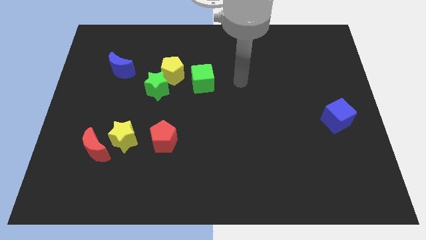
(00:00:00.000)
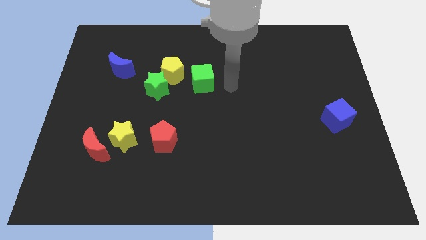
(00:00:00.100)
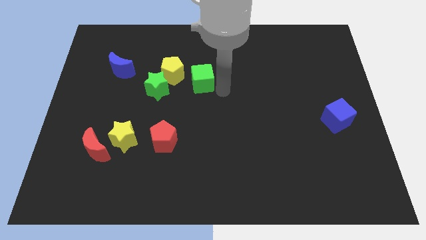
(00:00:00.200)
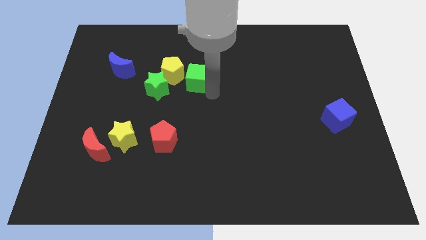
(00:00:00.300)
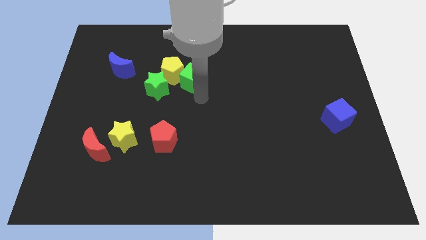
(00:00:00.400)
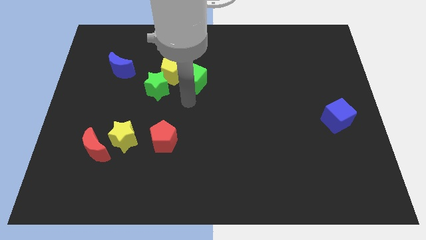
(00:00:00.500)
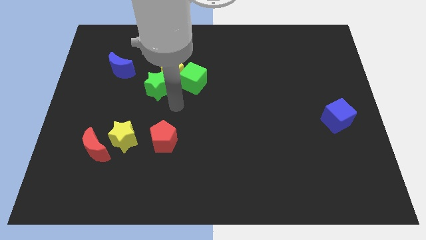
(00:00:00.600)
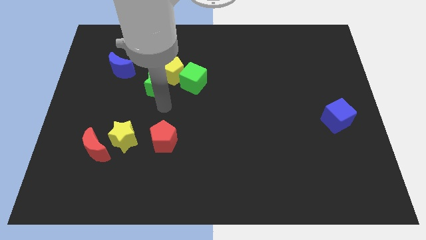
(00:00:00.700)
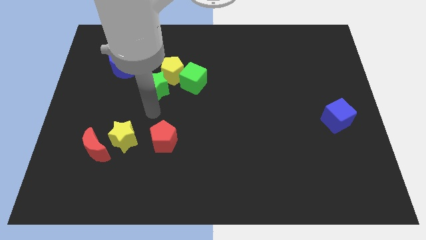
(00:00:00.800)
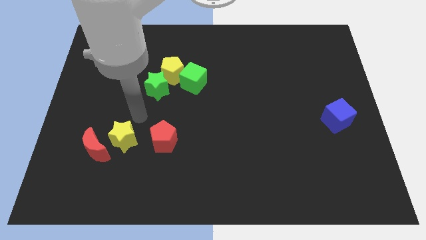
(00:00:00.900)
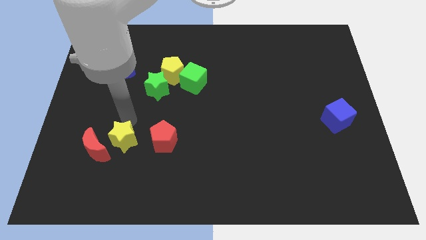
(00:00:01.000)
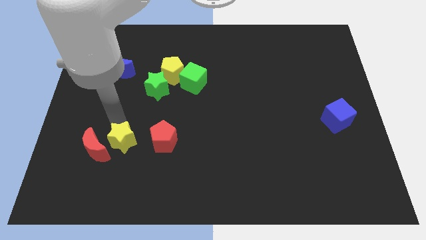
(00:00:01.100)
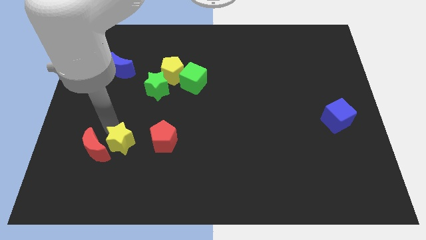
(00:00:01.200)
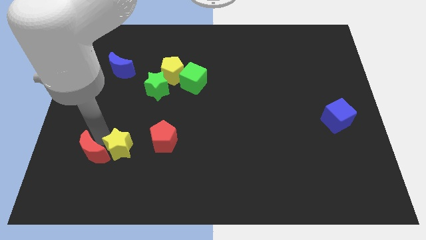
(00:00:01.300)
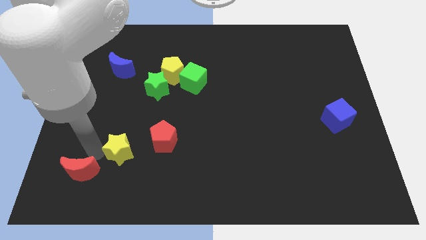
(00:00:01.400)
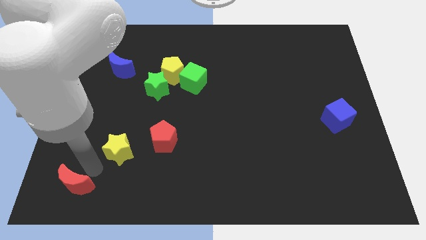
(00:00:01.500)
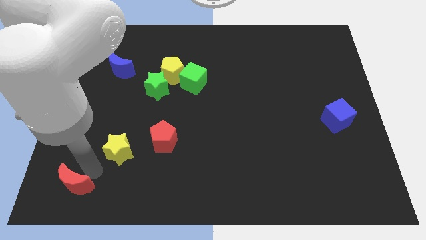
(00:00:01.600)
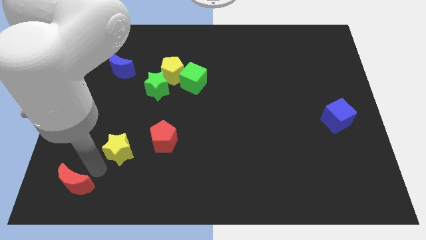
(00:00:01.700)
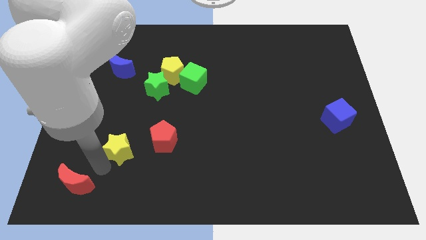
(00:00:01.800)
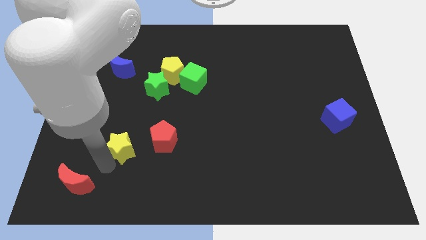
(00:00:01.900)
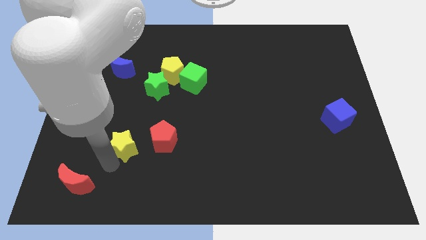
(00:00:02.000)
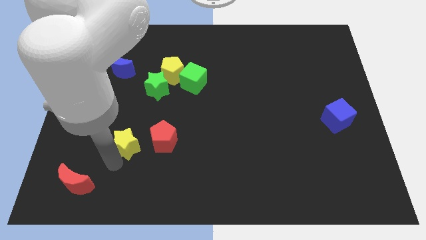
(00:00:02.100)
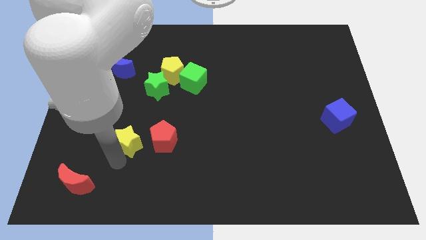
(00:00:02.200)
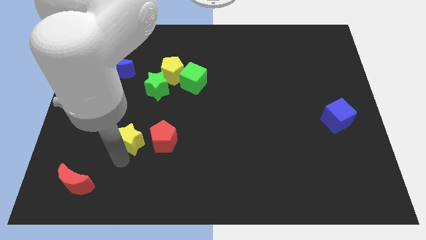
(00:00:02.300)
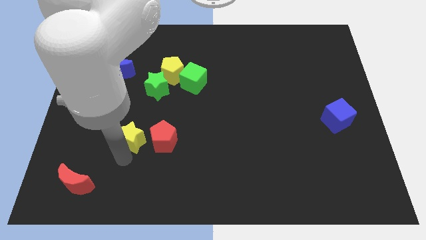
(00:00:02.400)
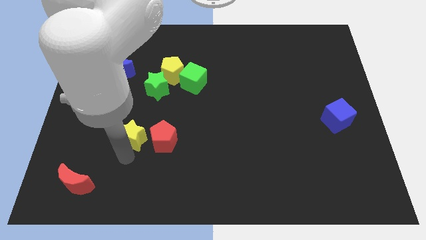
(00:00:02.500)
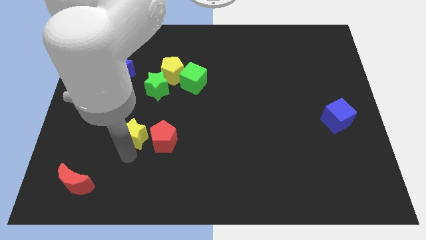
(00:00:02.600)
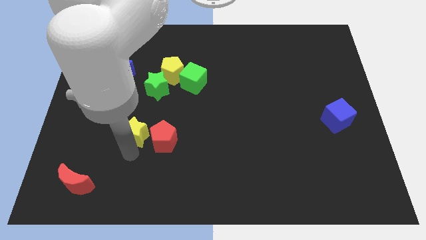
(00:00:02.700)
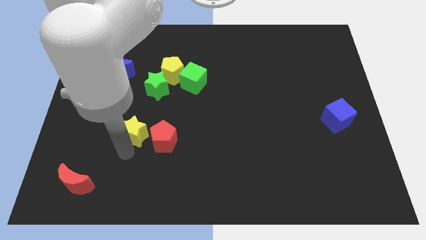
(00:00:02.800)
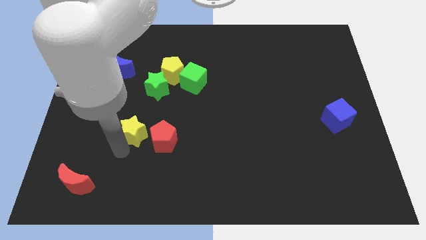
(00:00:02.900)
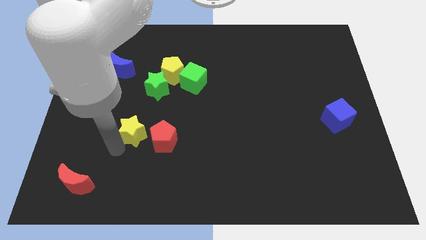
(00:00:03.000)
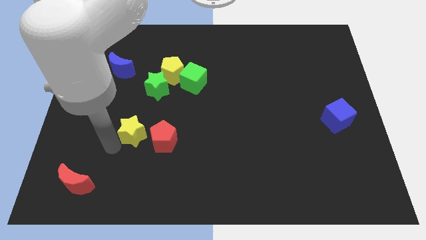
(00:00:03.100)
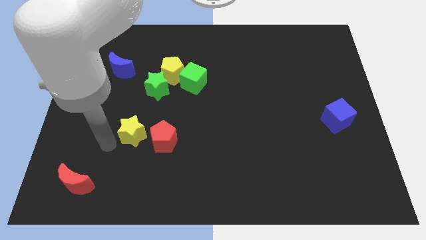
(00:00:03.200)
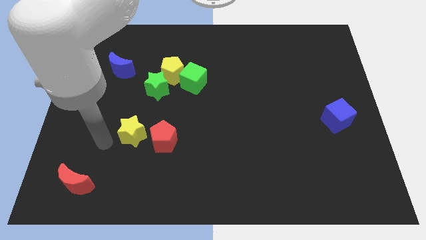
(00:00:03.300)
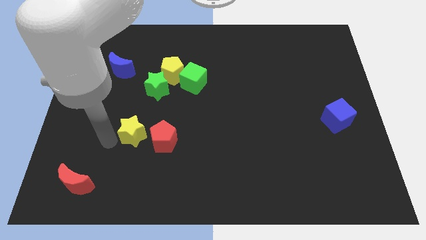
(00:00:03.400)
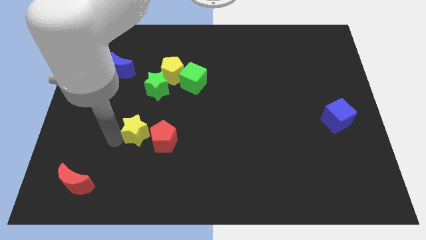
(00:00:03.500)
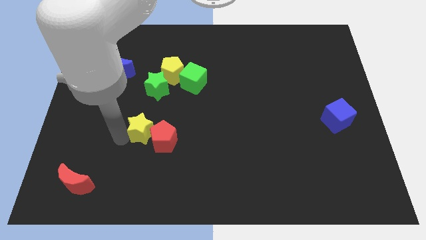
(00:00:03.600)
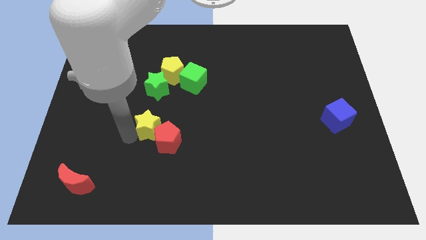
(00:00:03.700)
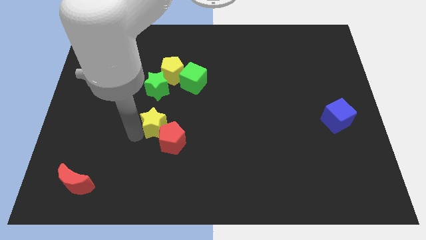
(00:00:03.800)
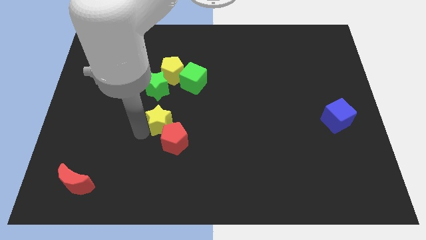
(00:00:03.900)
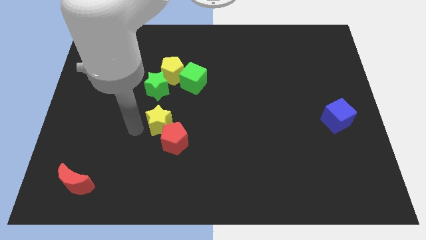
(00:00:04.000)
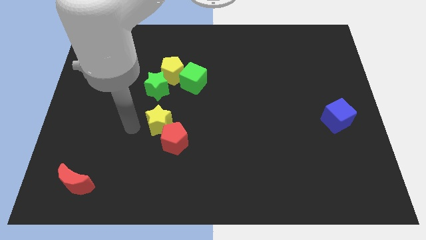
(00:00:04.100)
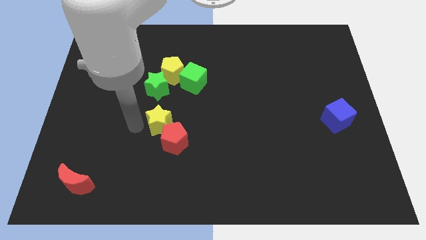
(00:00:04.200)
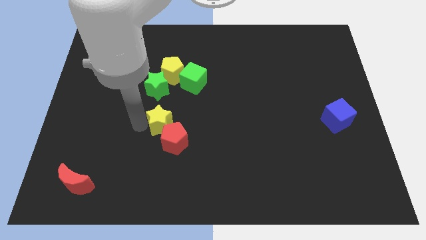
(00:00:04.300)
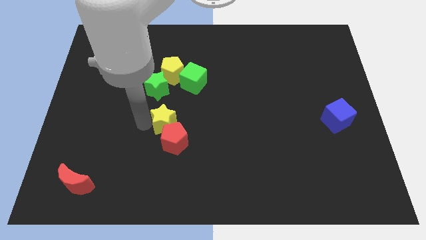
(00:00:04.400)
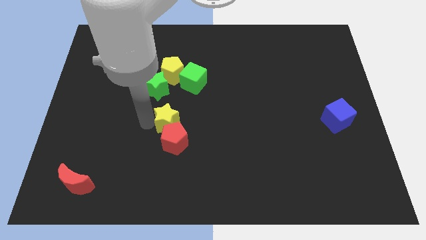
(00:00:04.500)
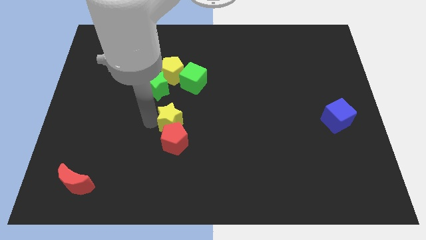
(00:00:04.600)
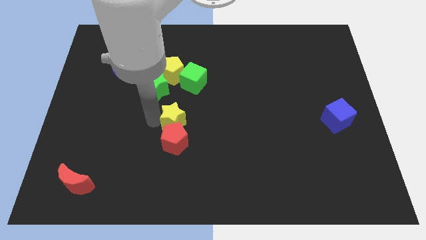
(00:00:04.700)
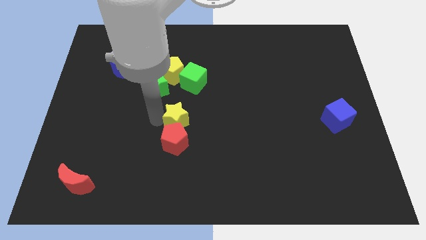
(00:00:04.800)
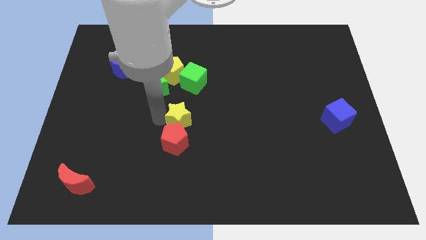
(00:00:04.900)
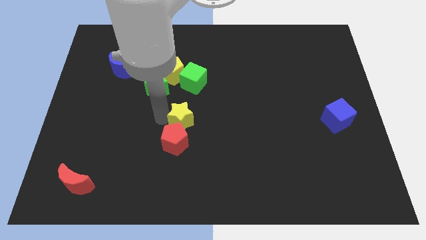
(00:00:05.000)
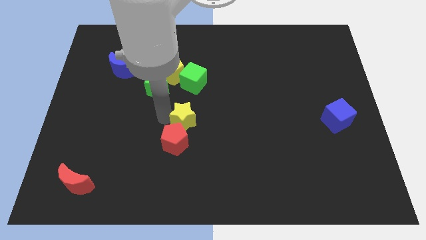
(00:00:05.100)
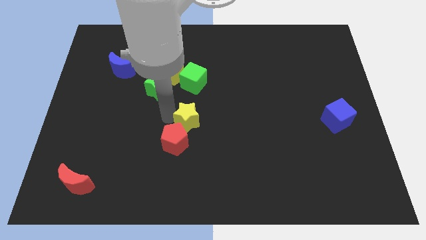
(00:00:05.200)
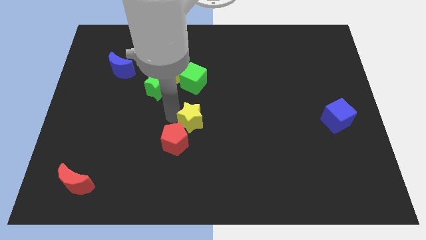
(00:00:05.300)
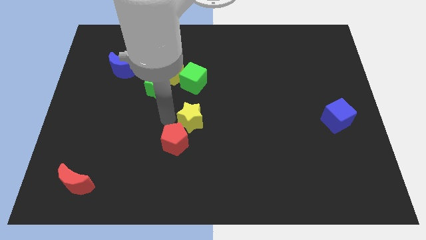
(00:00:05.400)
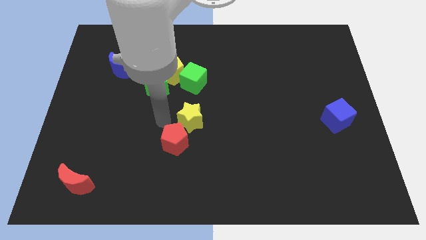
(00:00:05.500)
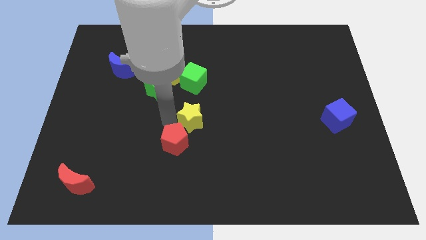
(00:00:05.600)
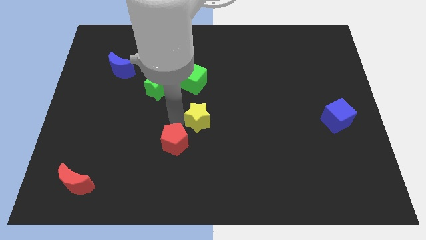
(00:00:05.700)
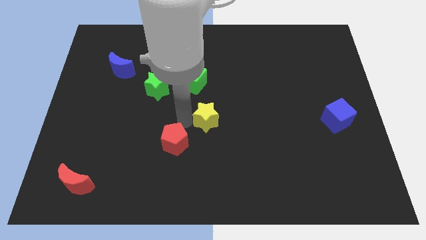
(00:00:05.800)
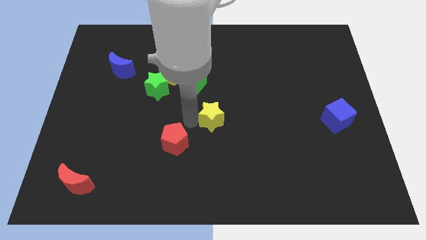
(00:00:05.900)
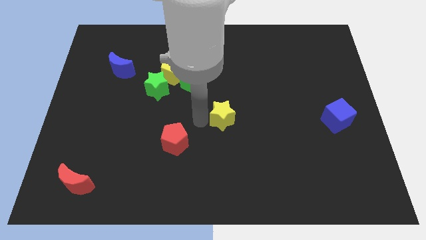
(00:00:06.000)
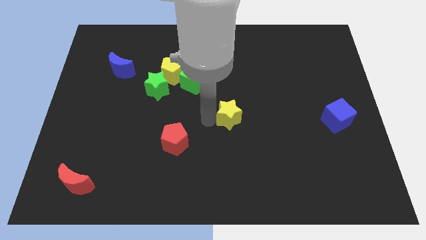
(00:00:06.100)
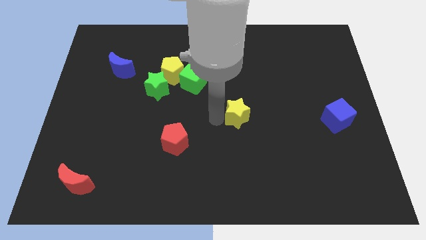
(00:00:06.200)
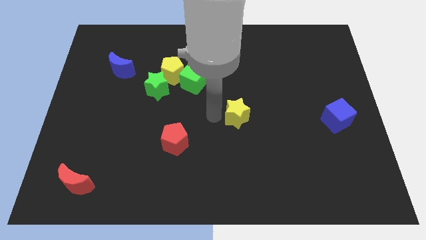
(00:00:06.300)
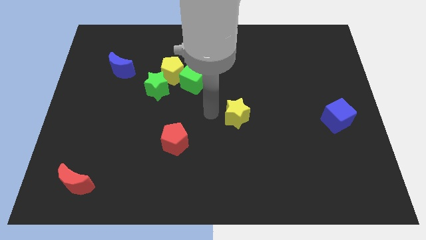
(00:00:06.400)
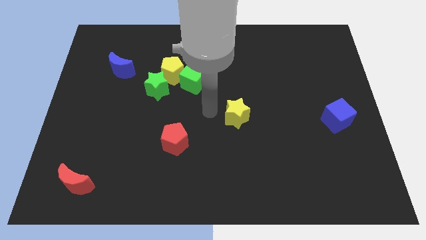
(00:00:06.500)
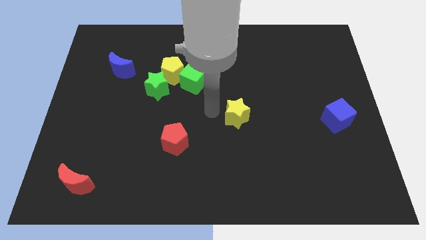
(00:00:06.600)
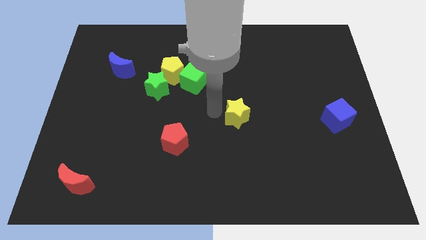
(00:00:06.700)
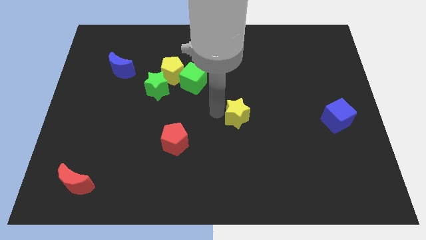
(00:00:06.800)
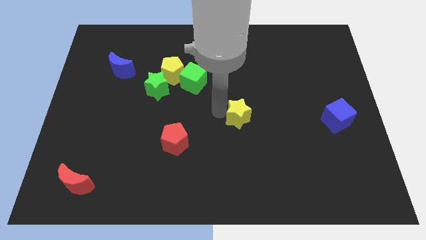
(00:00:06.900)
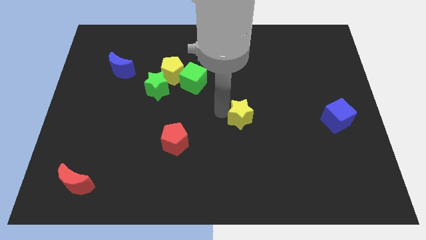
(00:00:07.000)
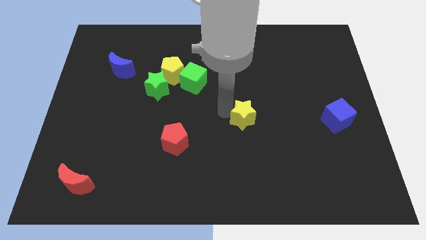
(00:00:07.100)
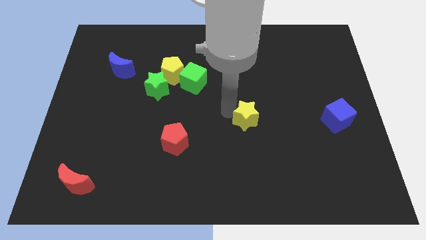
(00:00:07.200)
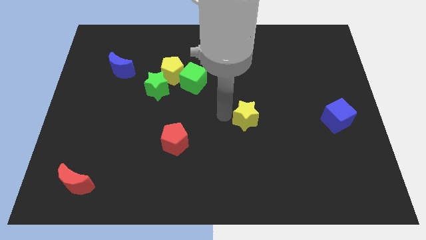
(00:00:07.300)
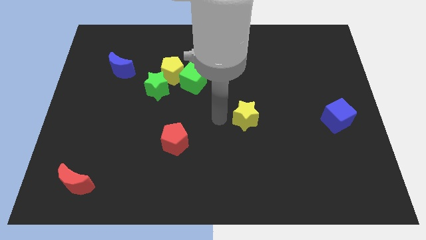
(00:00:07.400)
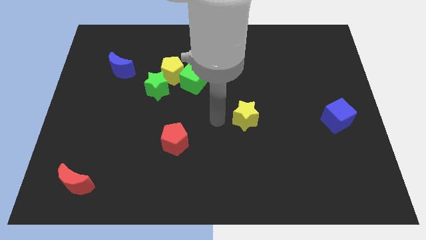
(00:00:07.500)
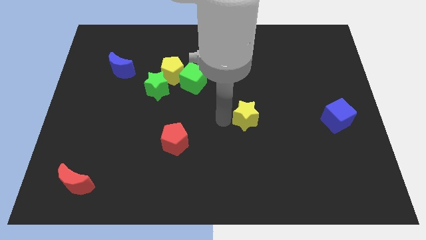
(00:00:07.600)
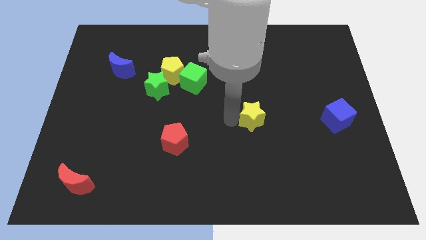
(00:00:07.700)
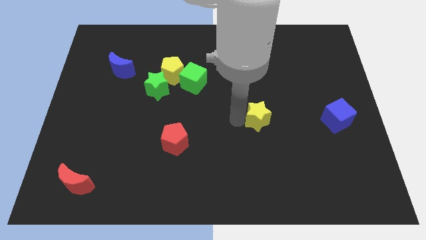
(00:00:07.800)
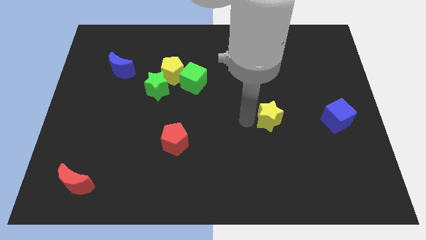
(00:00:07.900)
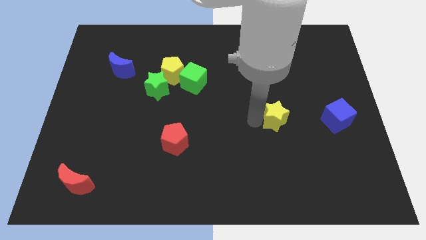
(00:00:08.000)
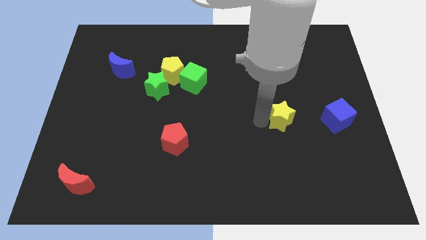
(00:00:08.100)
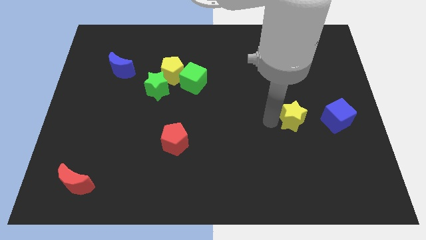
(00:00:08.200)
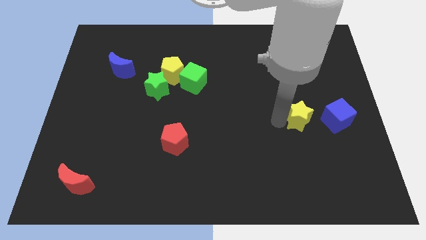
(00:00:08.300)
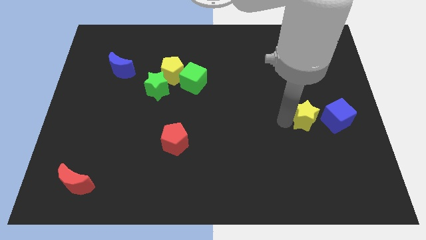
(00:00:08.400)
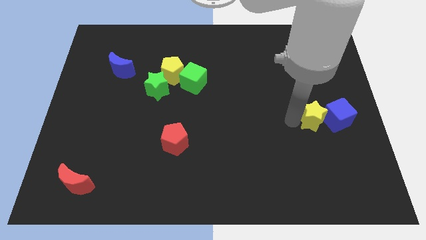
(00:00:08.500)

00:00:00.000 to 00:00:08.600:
slide the yellow star next to the blue cube
